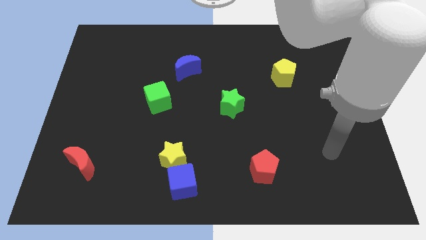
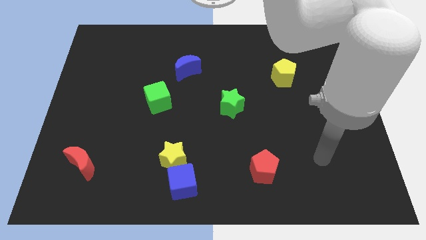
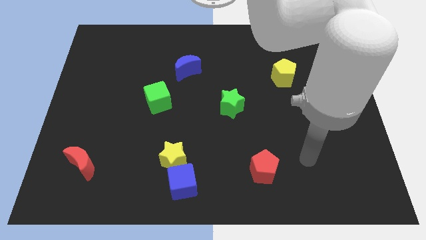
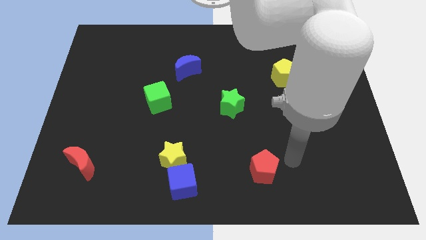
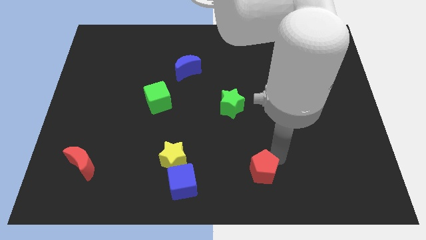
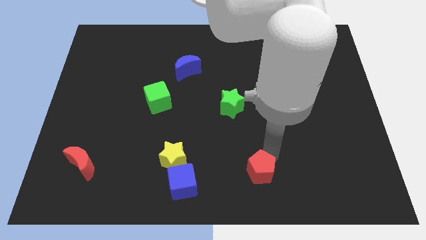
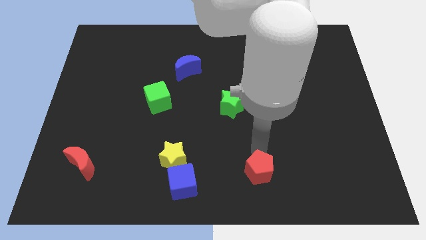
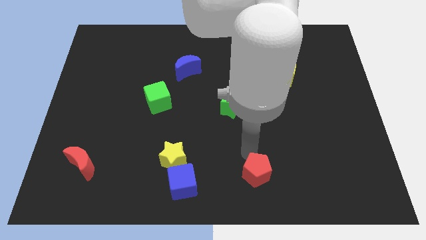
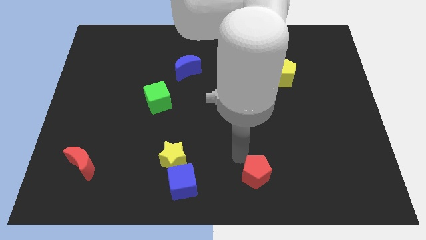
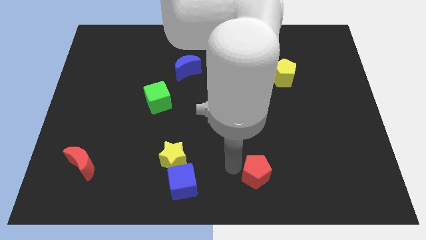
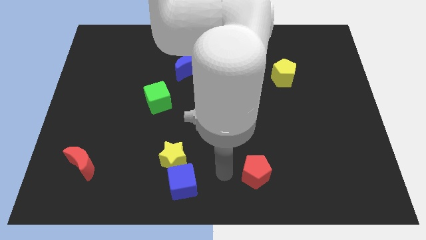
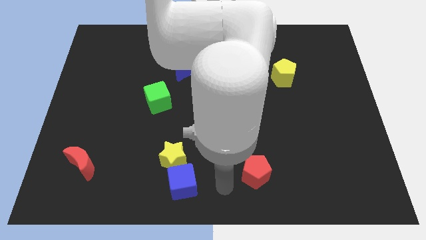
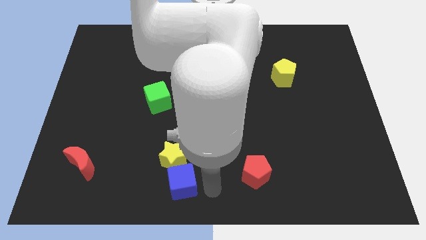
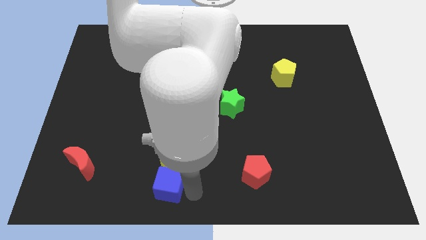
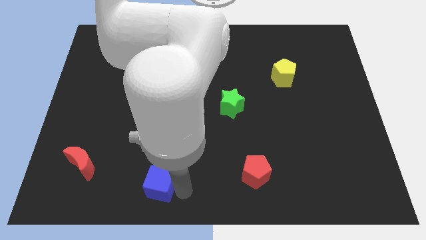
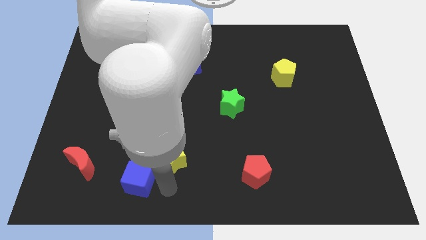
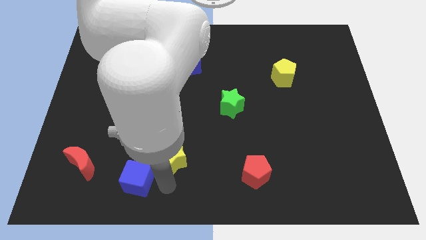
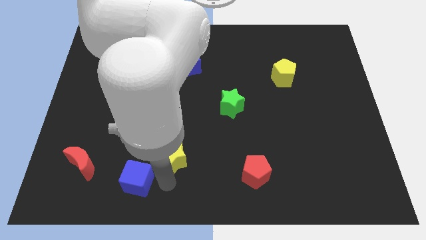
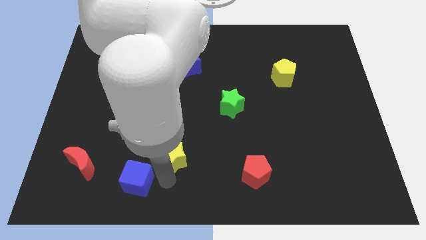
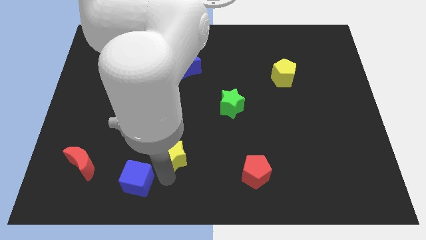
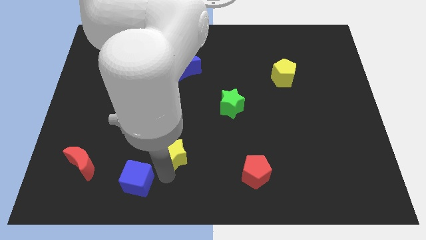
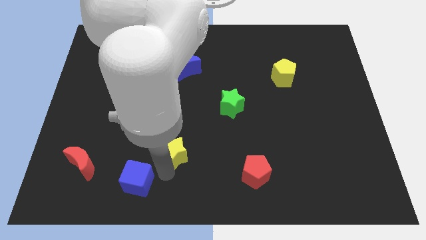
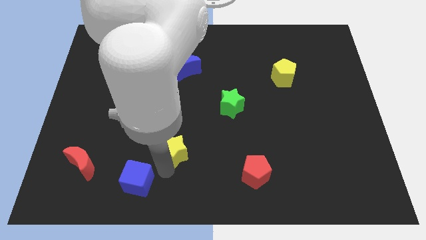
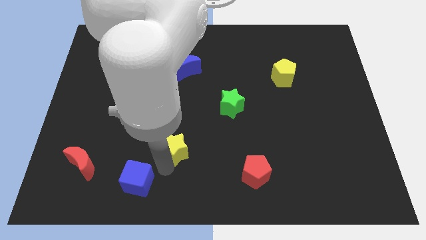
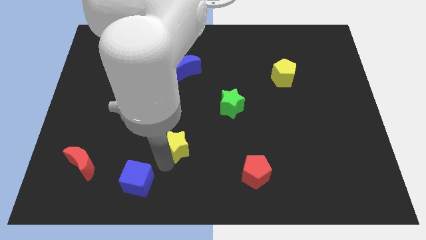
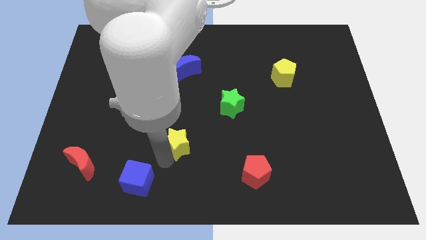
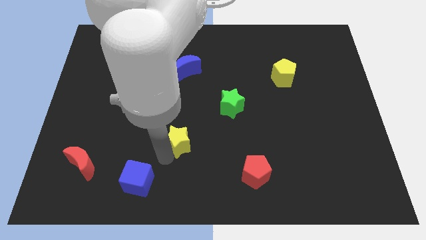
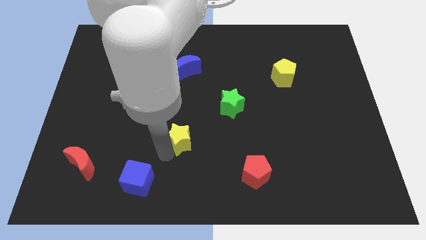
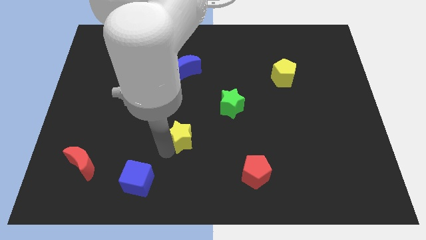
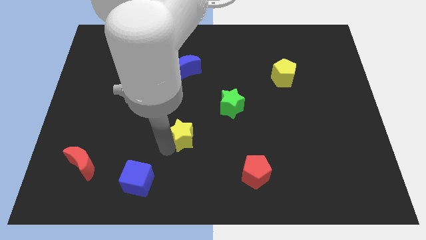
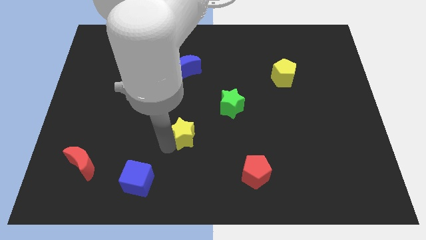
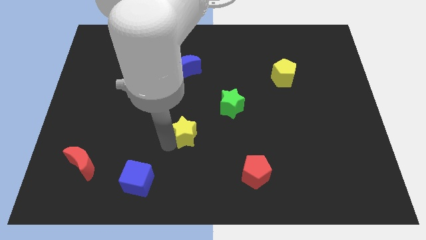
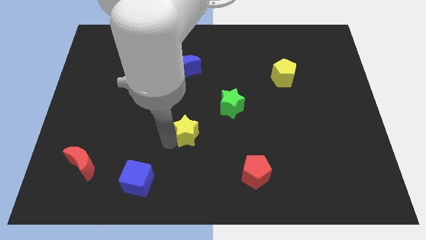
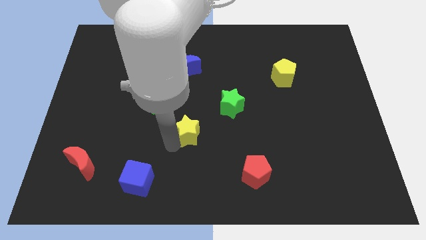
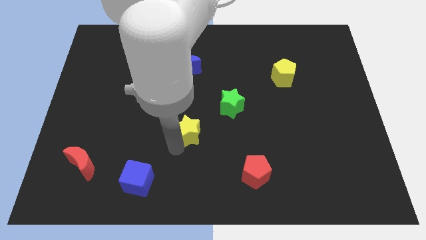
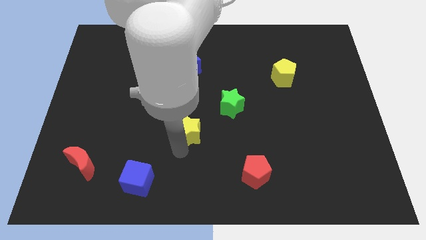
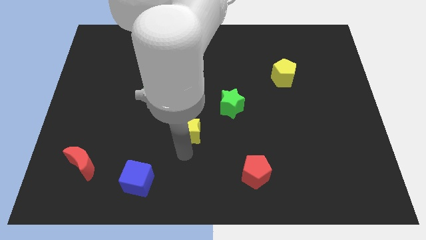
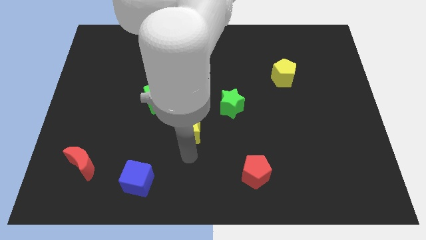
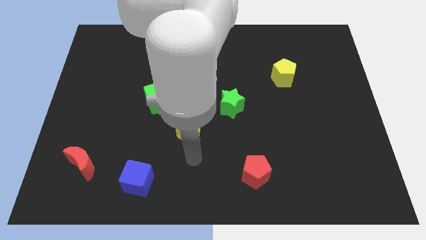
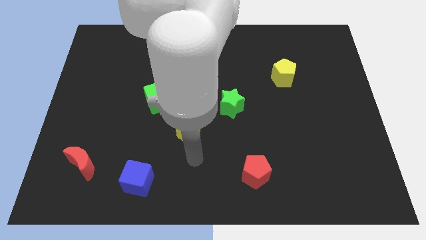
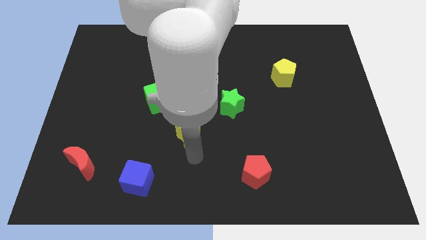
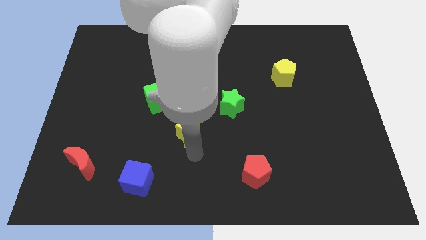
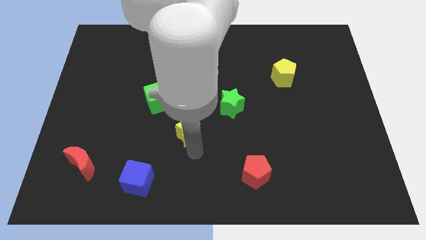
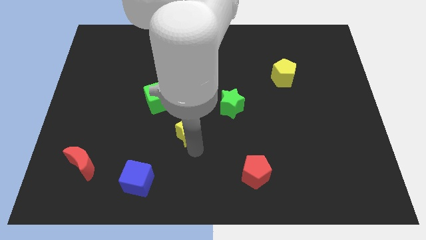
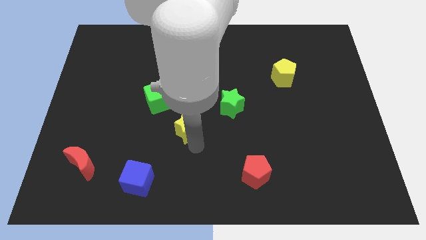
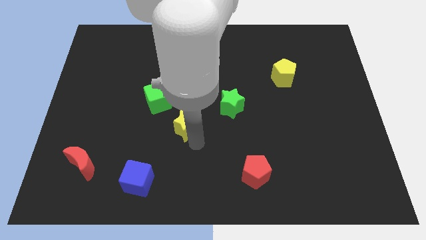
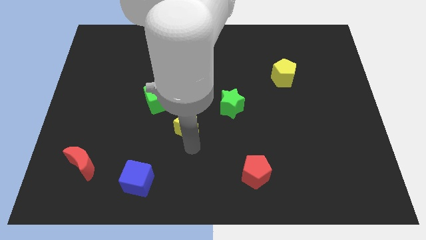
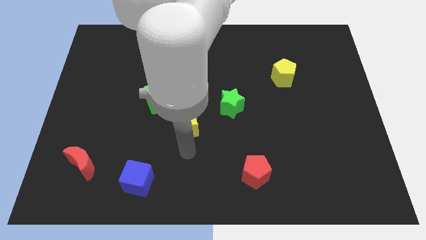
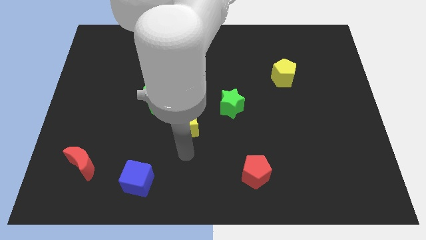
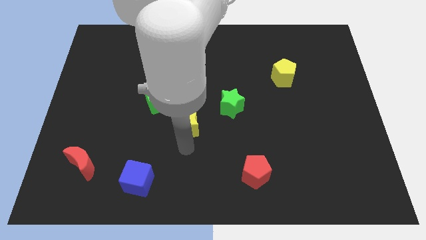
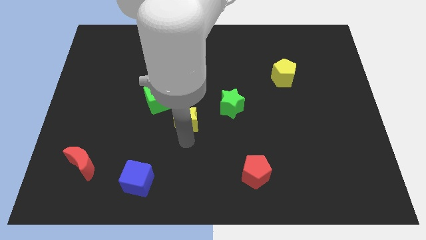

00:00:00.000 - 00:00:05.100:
move the yellow star just left of the green star

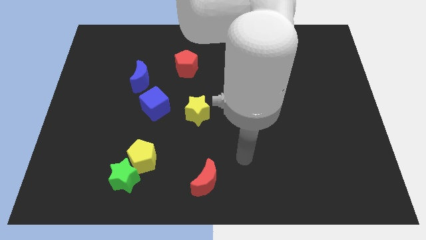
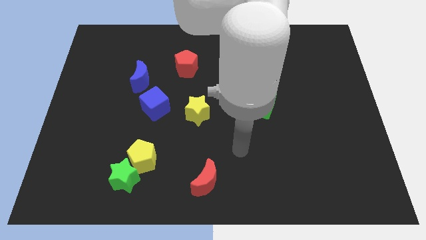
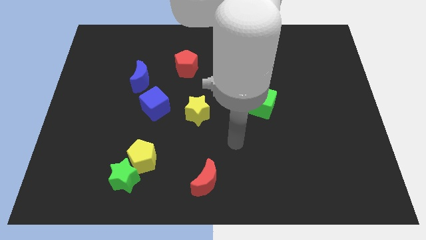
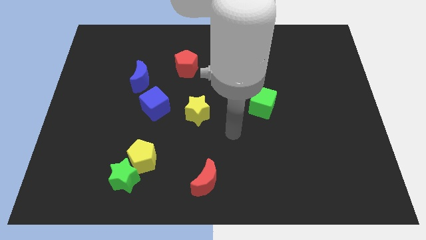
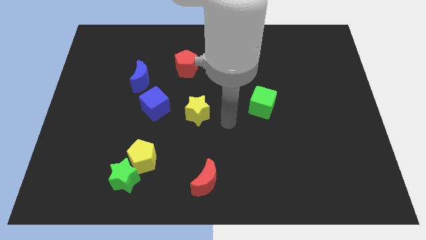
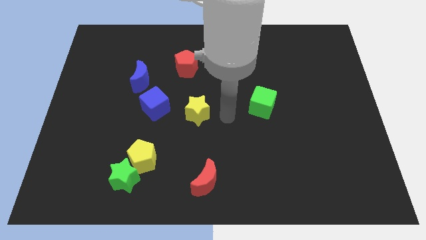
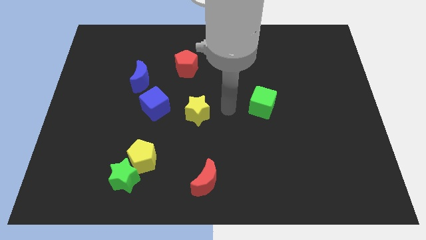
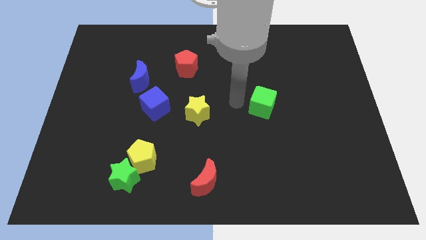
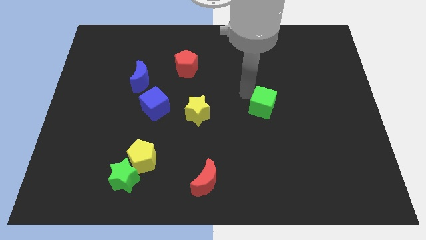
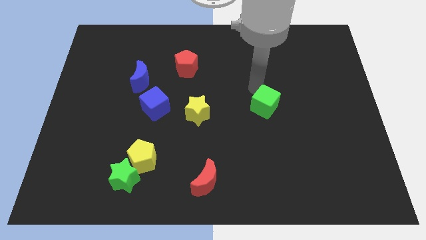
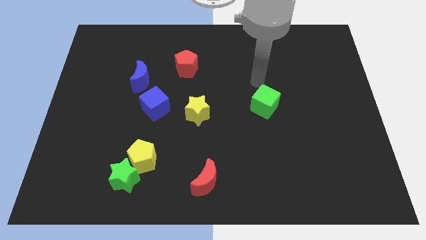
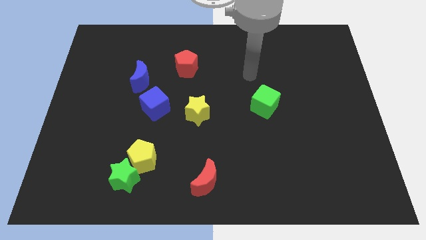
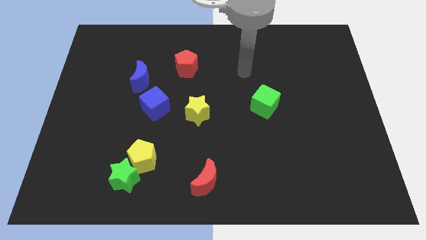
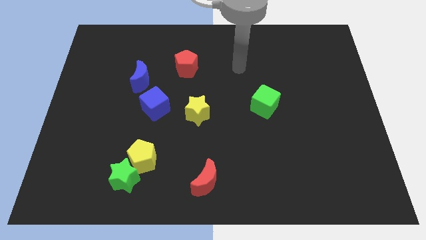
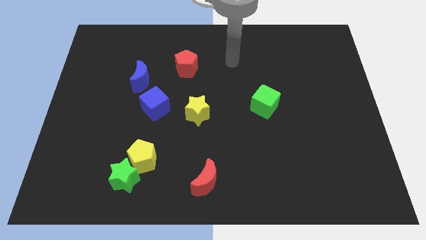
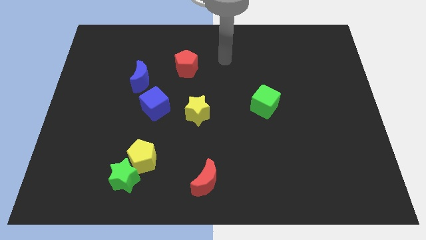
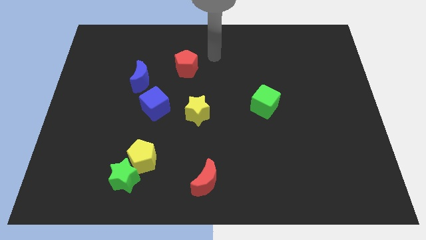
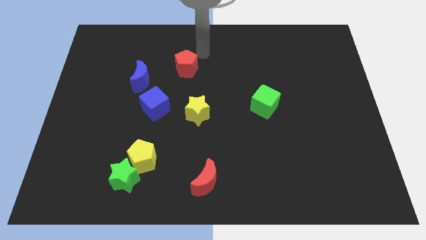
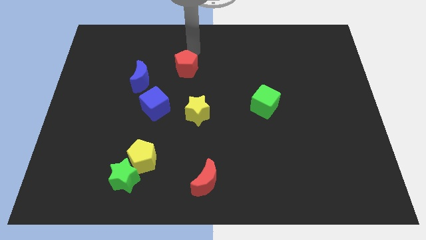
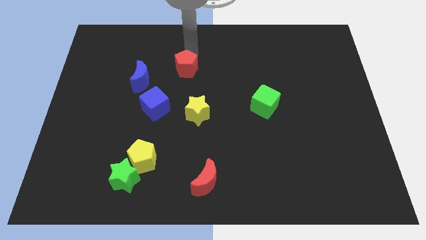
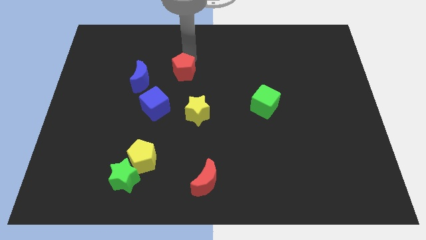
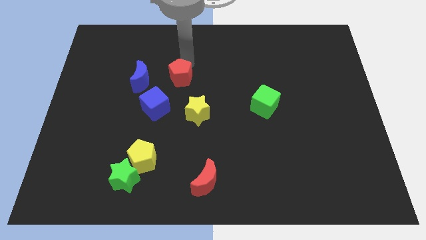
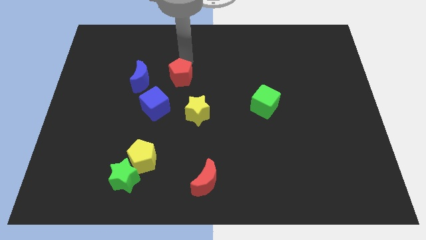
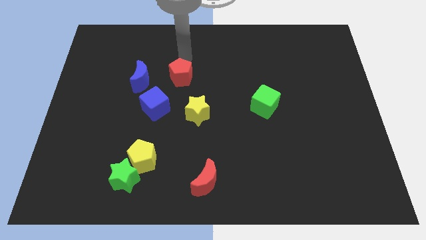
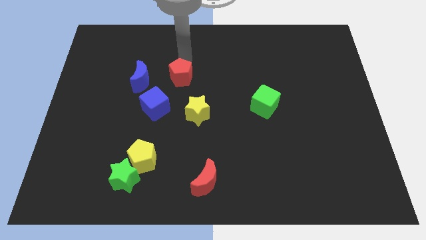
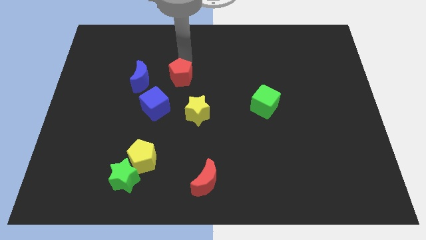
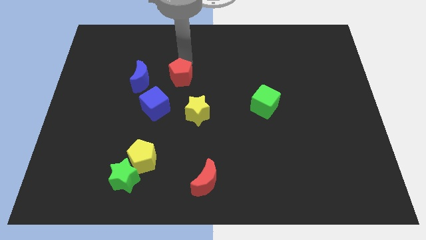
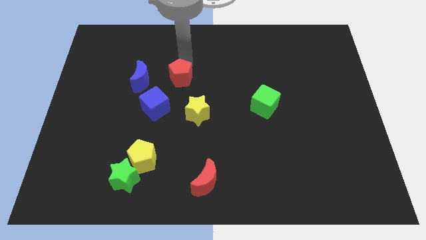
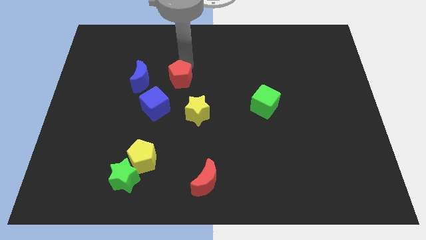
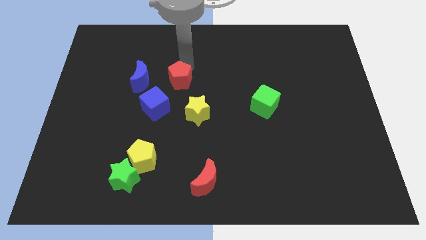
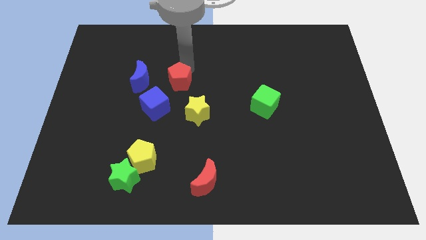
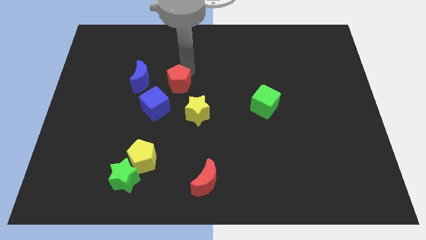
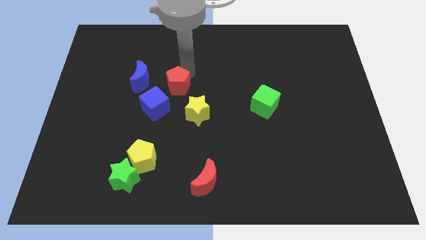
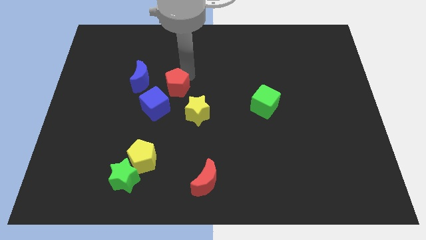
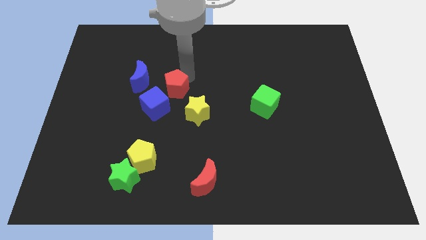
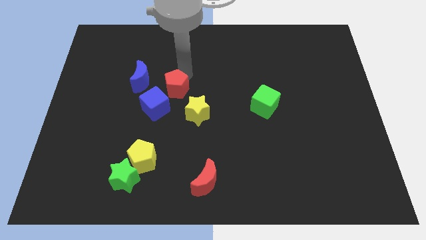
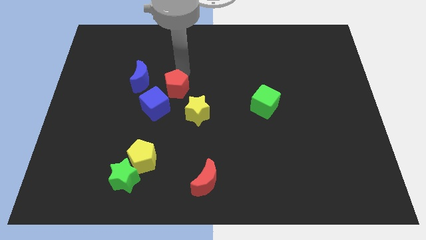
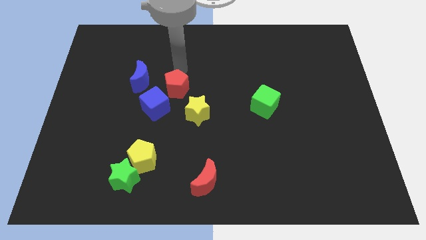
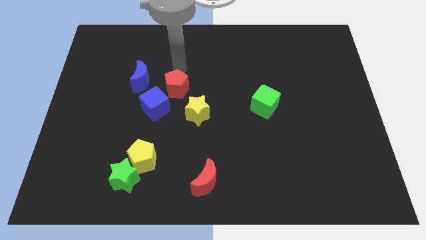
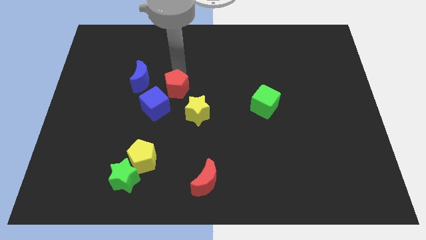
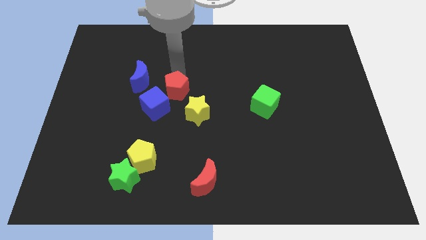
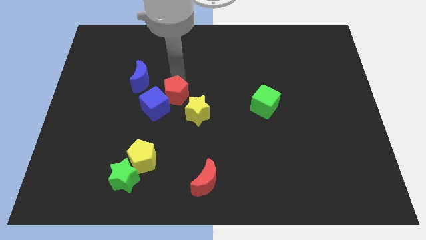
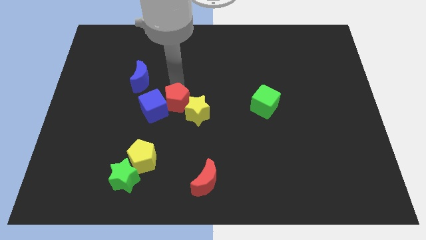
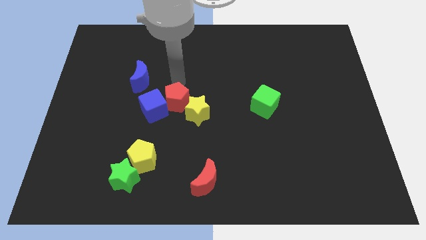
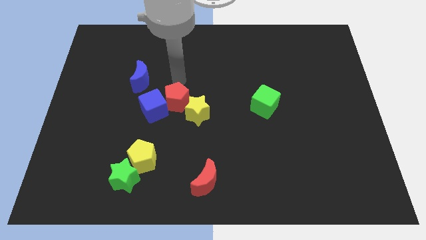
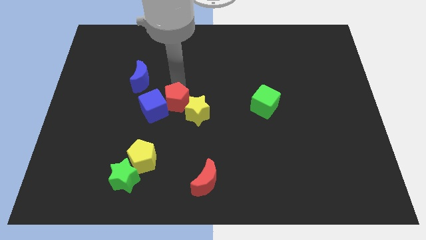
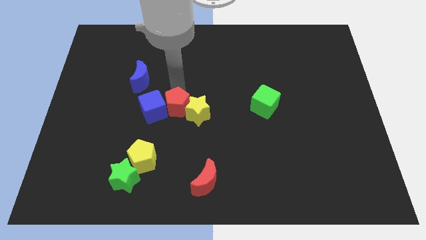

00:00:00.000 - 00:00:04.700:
put the red pentagon to the bottom right side of the blue cube
